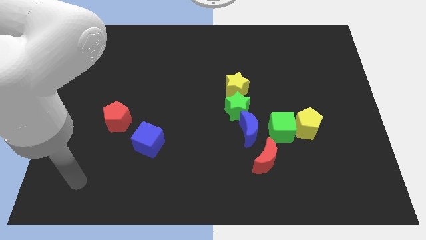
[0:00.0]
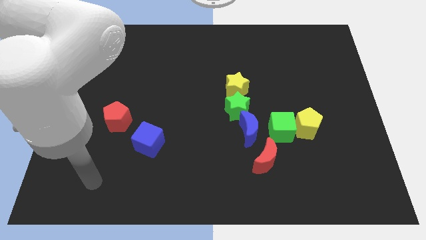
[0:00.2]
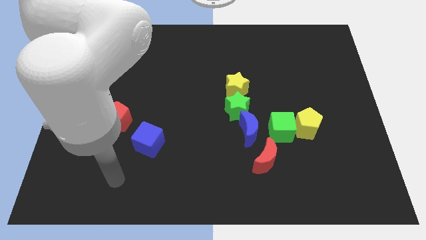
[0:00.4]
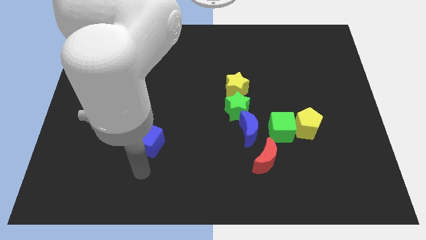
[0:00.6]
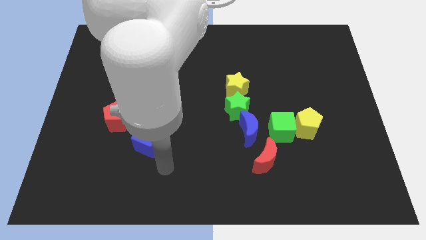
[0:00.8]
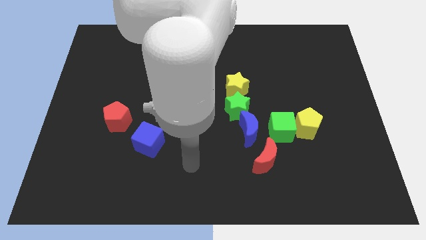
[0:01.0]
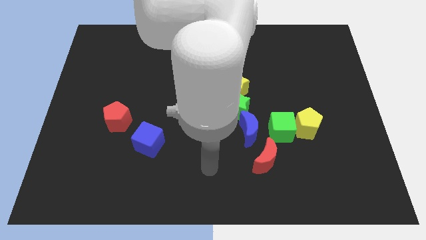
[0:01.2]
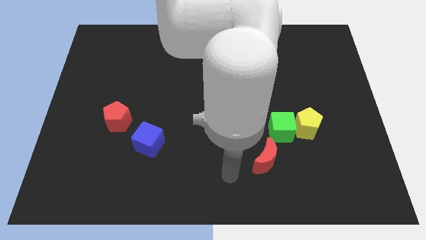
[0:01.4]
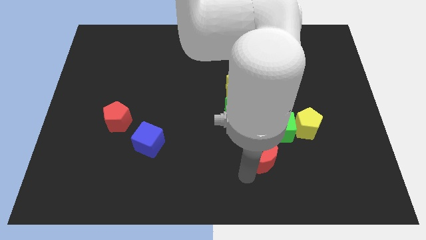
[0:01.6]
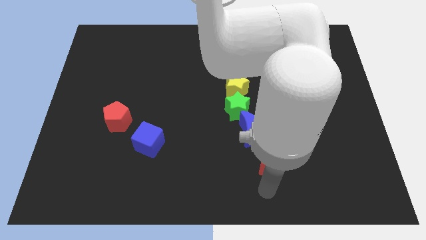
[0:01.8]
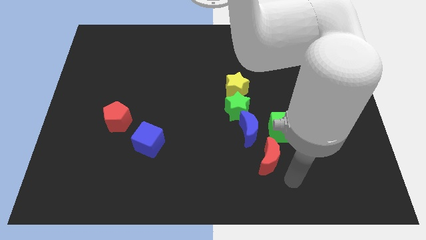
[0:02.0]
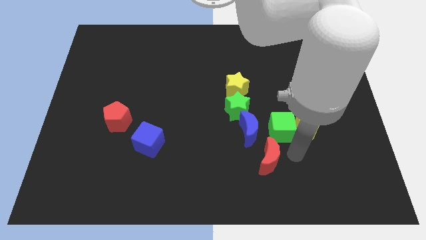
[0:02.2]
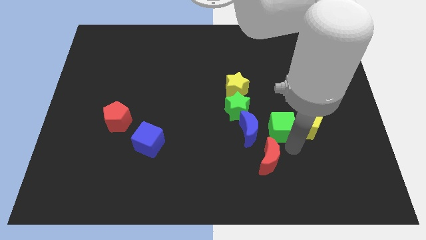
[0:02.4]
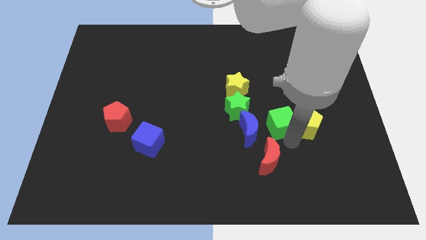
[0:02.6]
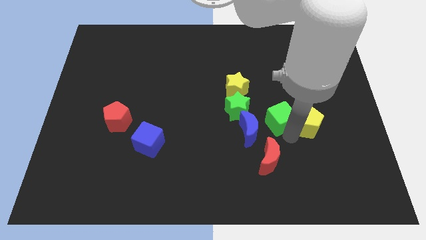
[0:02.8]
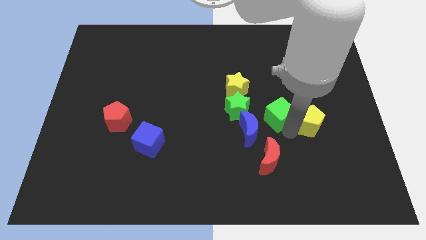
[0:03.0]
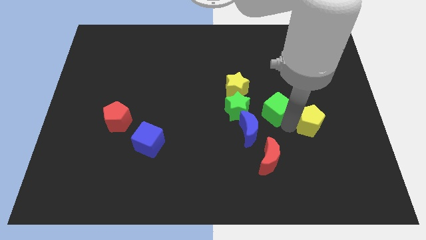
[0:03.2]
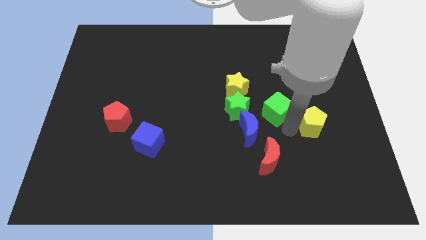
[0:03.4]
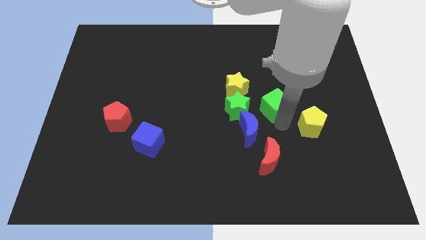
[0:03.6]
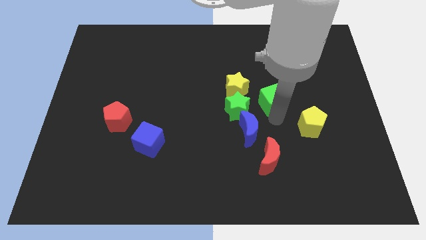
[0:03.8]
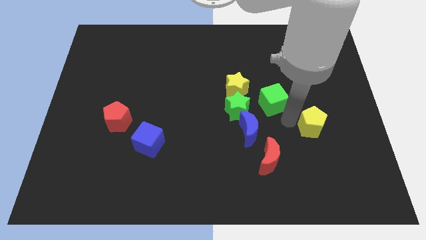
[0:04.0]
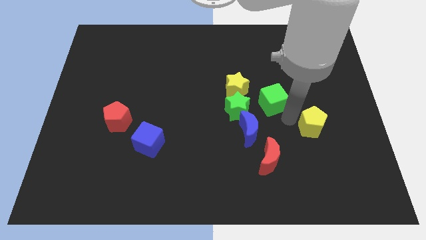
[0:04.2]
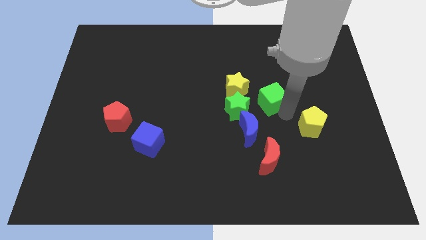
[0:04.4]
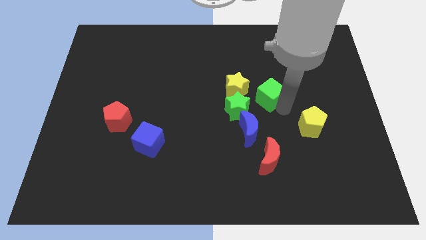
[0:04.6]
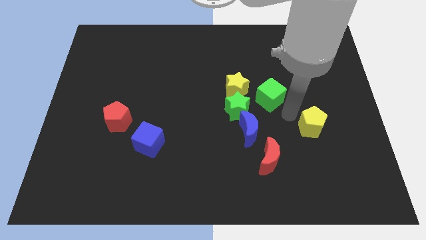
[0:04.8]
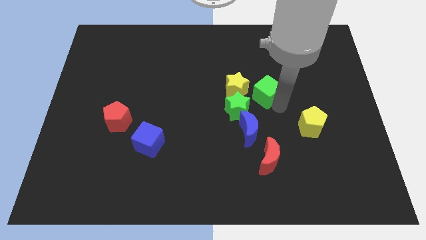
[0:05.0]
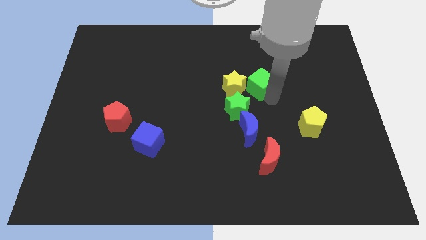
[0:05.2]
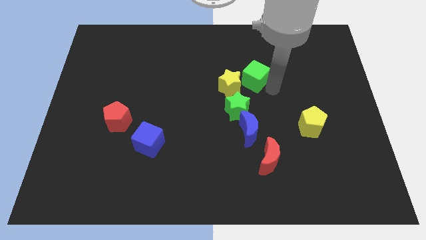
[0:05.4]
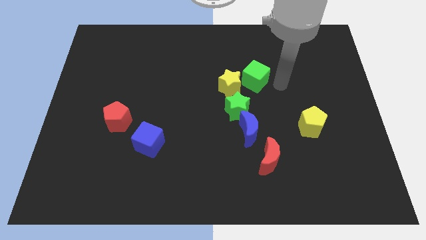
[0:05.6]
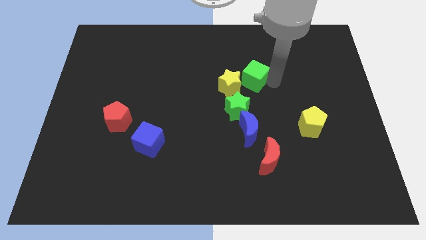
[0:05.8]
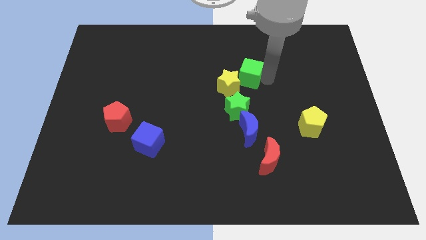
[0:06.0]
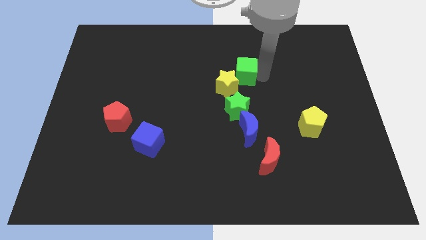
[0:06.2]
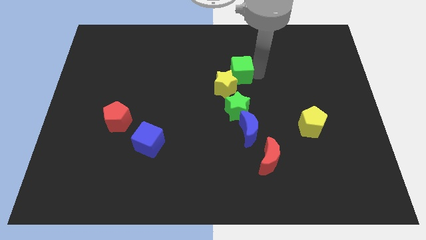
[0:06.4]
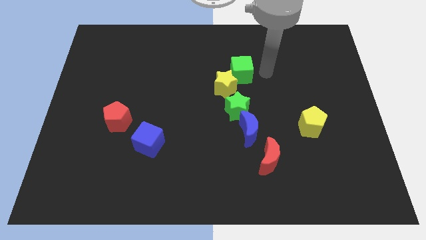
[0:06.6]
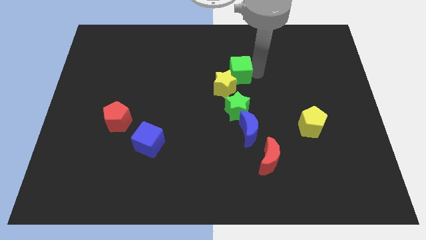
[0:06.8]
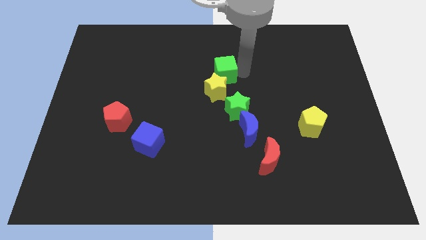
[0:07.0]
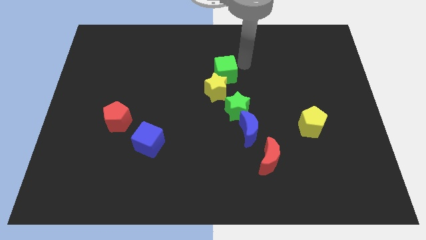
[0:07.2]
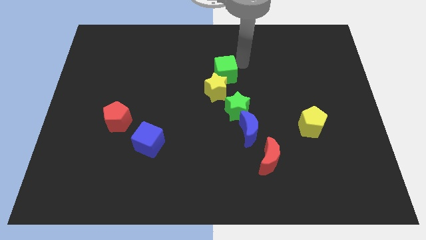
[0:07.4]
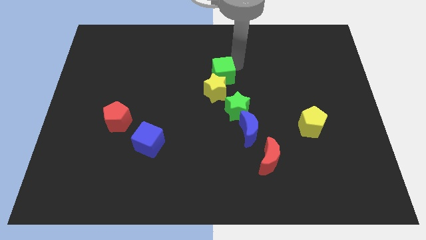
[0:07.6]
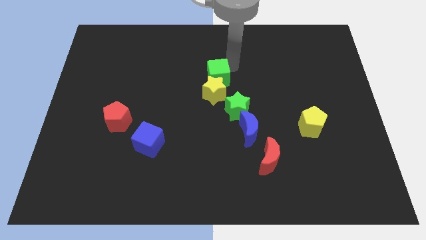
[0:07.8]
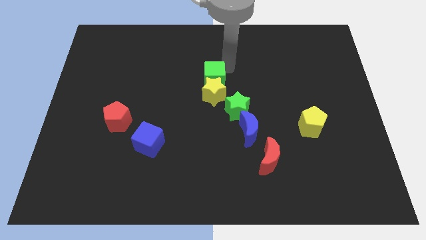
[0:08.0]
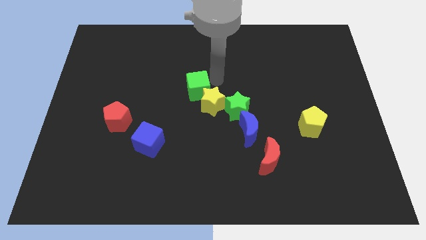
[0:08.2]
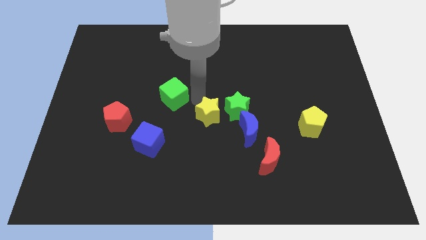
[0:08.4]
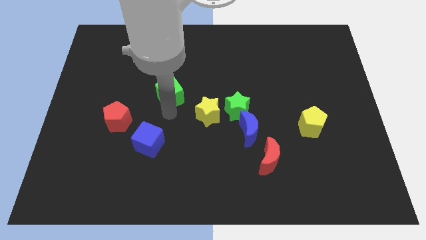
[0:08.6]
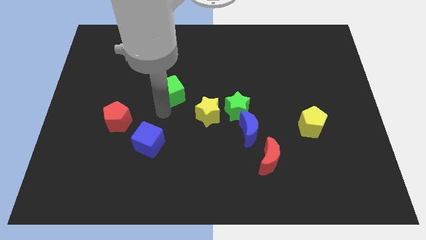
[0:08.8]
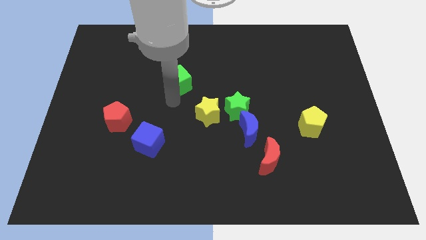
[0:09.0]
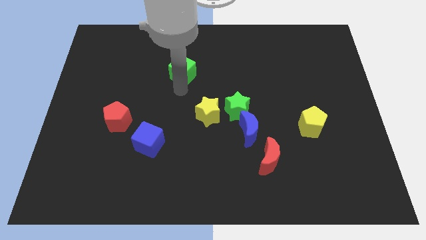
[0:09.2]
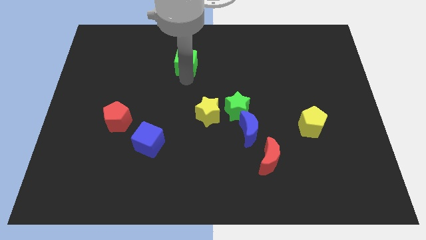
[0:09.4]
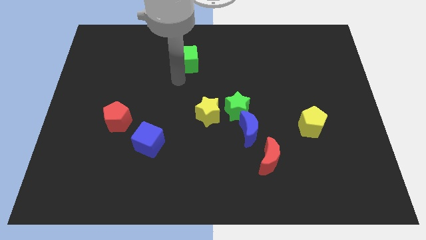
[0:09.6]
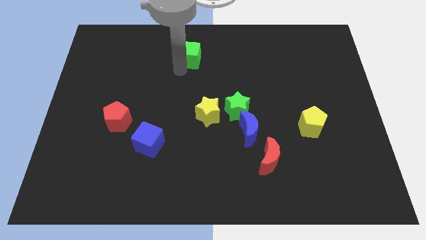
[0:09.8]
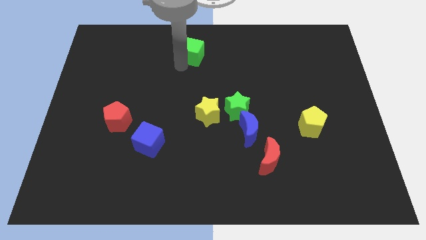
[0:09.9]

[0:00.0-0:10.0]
put the green cube to the top side

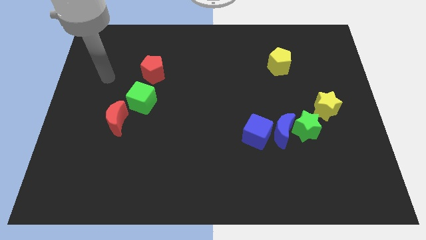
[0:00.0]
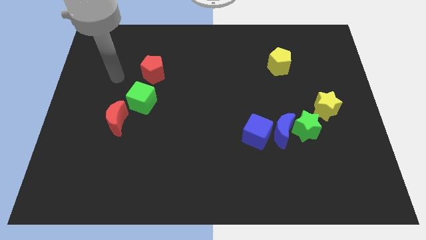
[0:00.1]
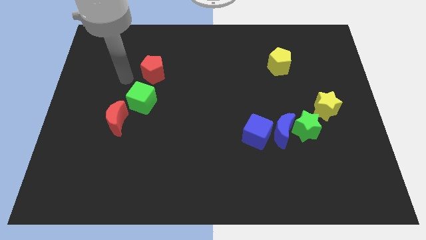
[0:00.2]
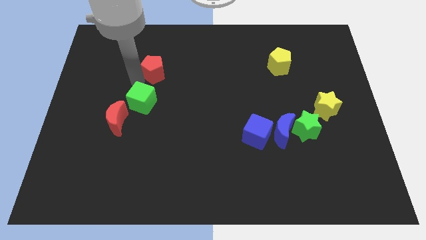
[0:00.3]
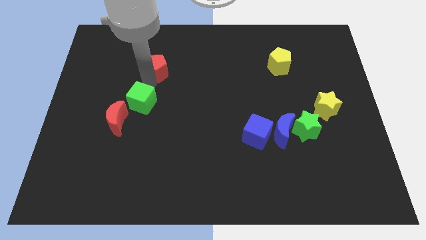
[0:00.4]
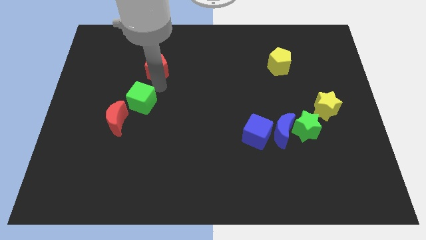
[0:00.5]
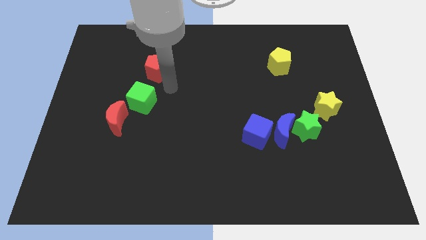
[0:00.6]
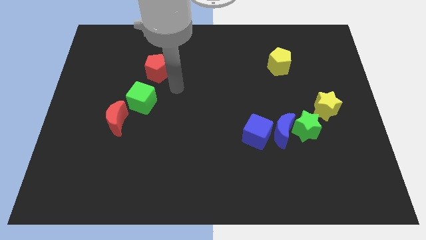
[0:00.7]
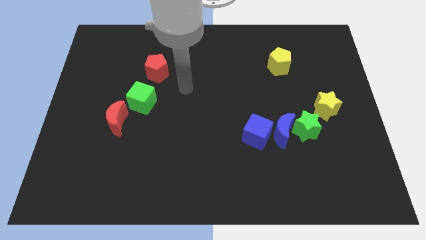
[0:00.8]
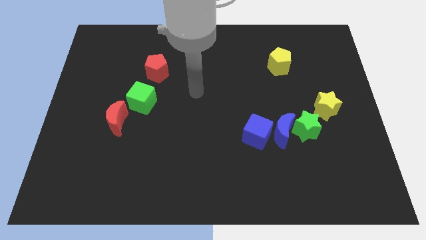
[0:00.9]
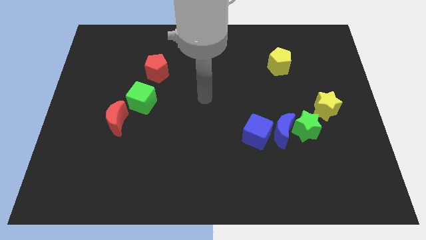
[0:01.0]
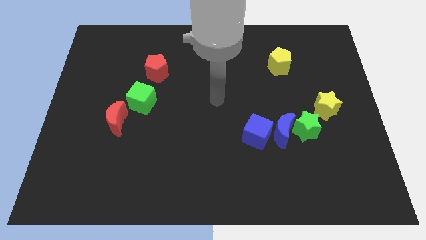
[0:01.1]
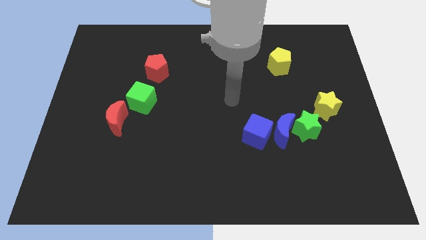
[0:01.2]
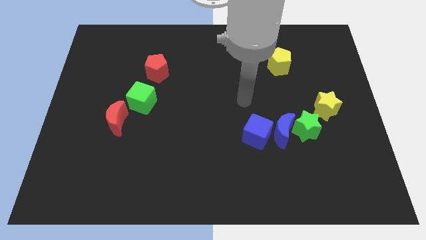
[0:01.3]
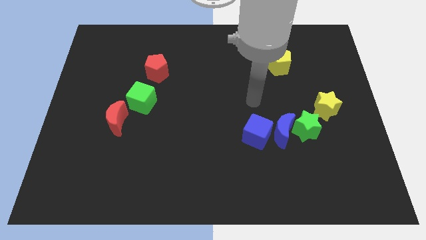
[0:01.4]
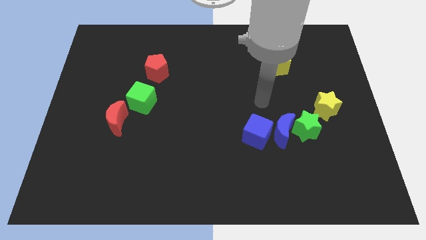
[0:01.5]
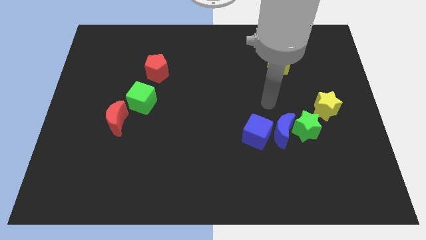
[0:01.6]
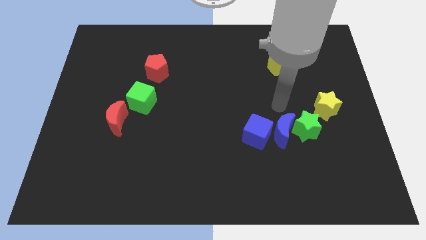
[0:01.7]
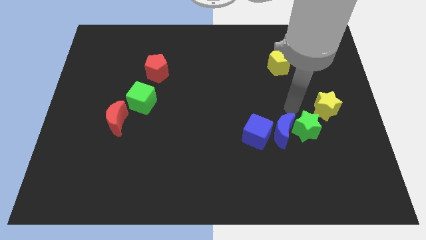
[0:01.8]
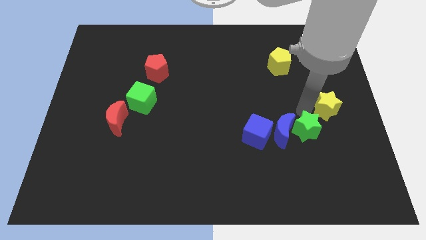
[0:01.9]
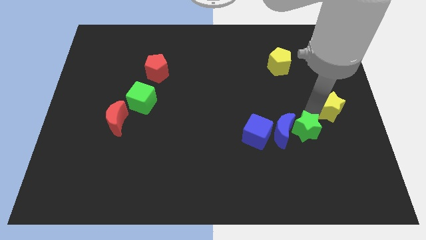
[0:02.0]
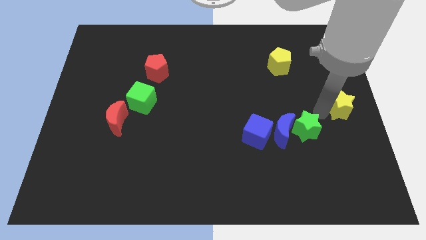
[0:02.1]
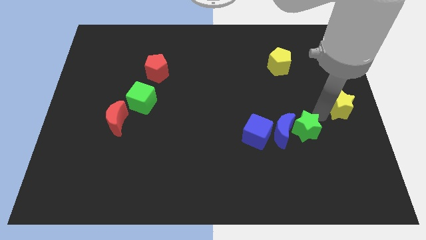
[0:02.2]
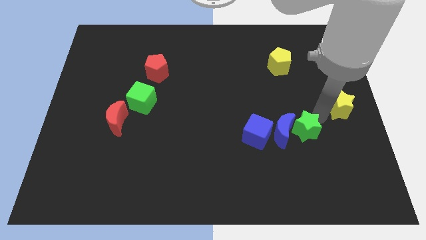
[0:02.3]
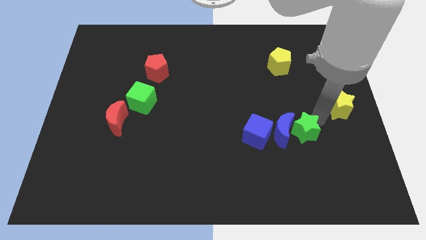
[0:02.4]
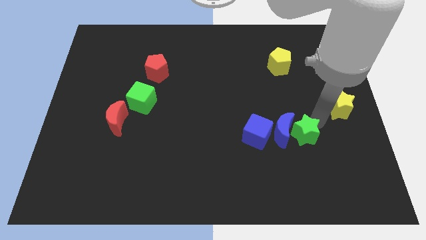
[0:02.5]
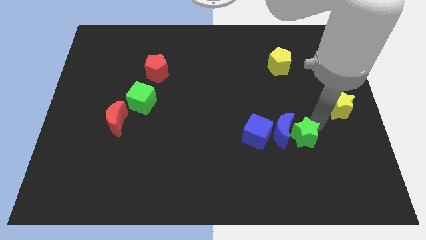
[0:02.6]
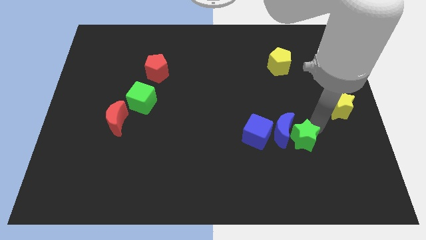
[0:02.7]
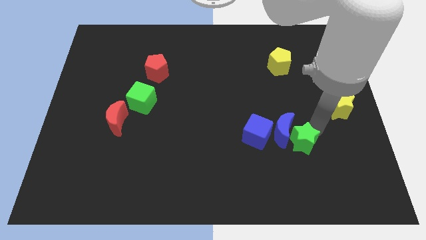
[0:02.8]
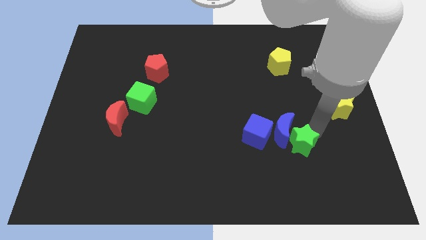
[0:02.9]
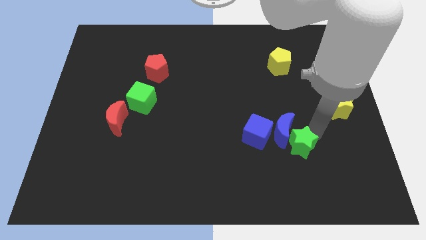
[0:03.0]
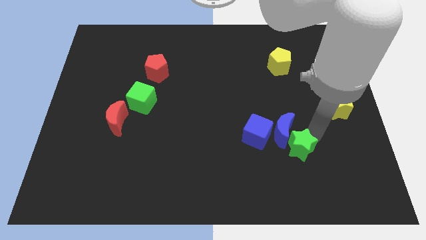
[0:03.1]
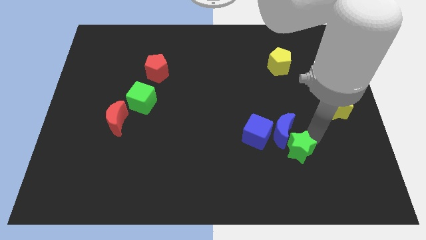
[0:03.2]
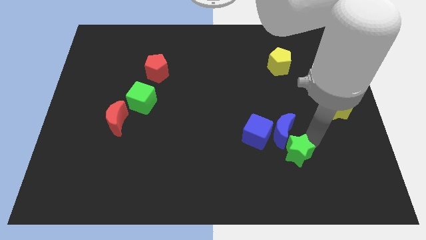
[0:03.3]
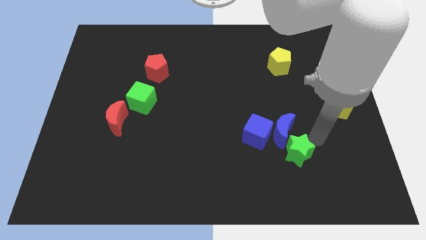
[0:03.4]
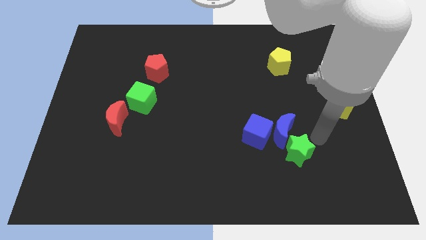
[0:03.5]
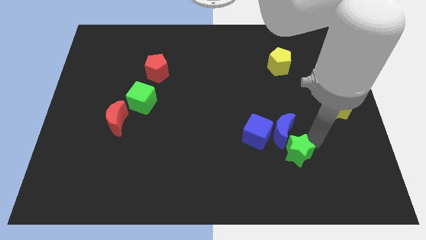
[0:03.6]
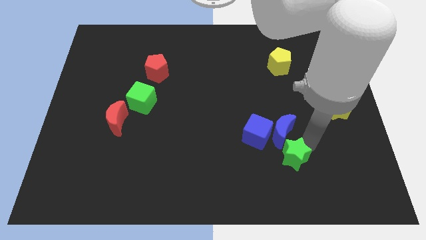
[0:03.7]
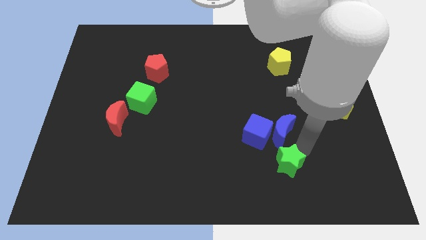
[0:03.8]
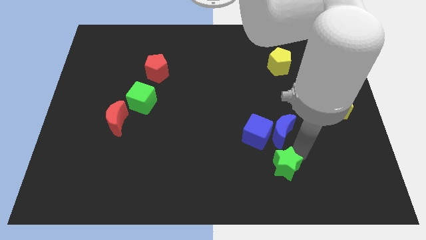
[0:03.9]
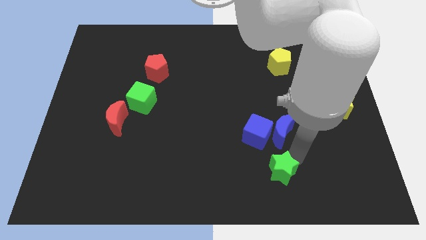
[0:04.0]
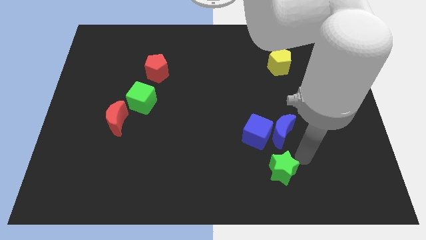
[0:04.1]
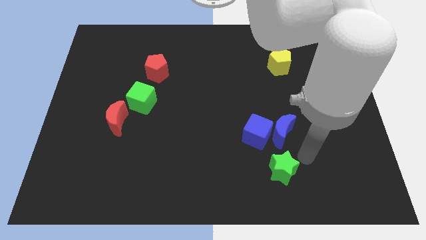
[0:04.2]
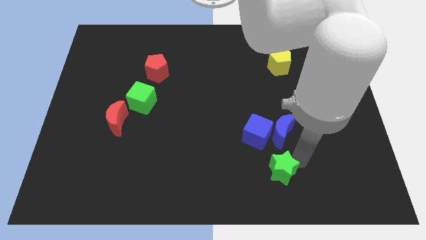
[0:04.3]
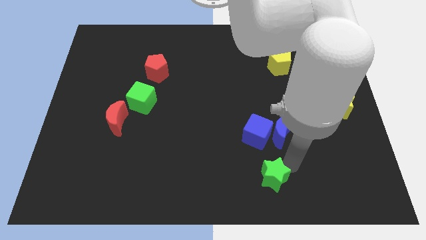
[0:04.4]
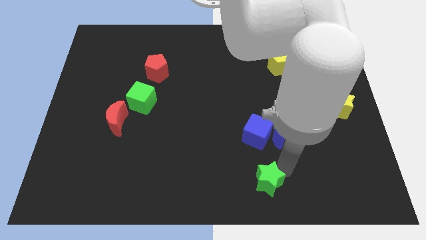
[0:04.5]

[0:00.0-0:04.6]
push the green star to the bottom
